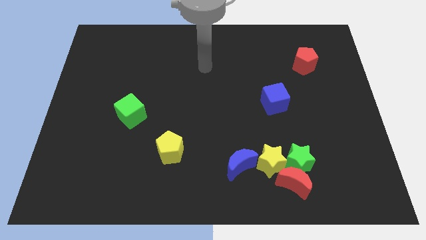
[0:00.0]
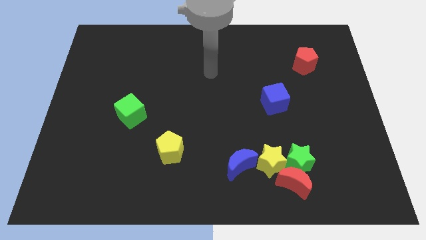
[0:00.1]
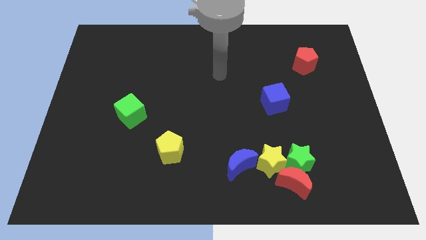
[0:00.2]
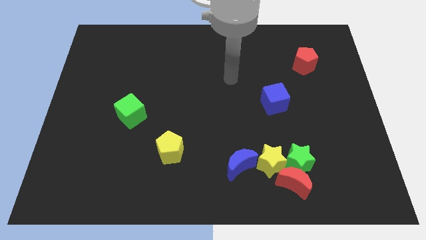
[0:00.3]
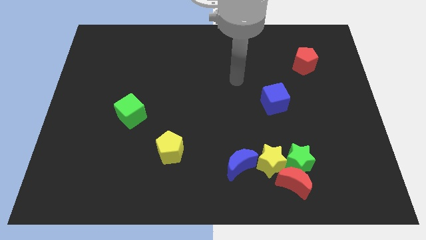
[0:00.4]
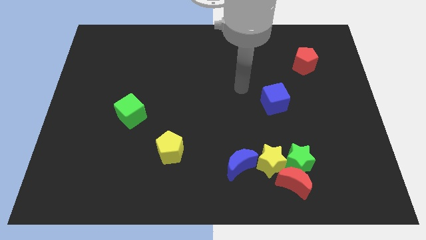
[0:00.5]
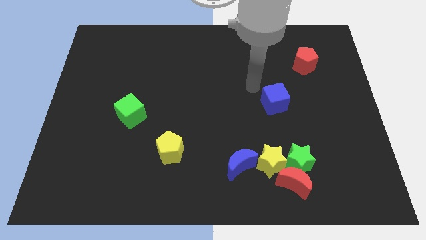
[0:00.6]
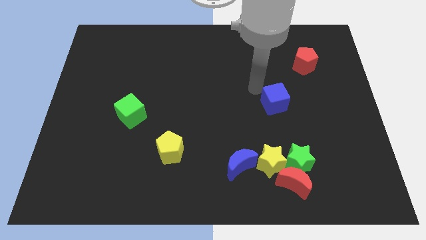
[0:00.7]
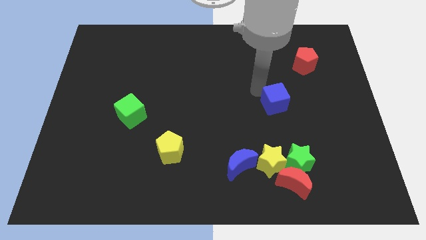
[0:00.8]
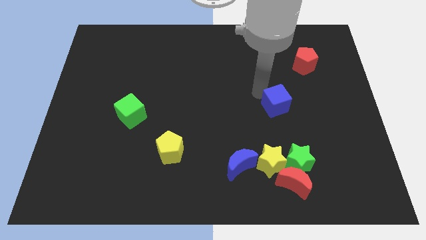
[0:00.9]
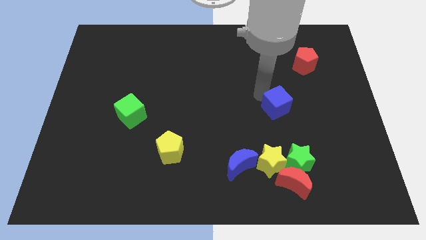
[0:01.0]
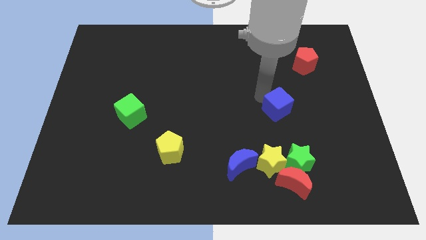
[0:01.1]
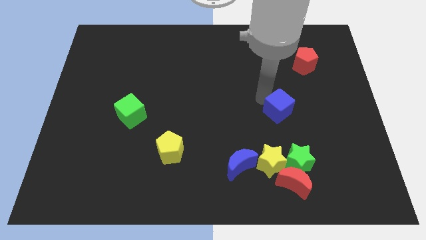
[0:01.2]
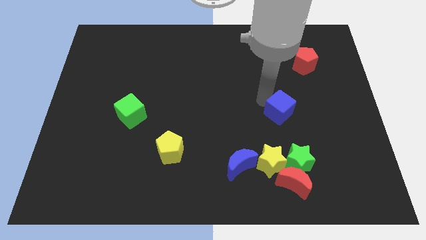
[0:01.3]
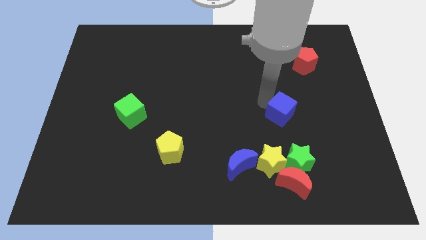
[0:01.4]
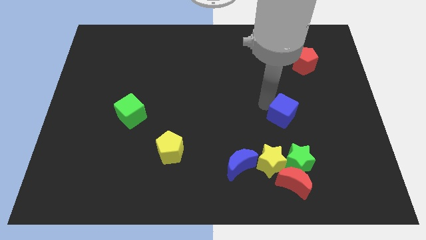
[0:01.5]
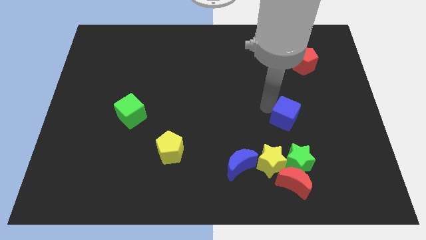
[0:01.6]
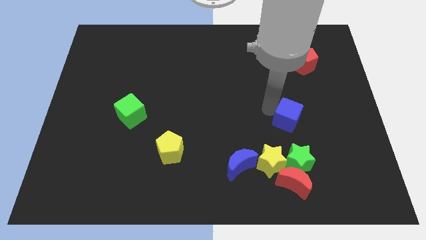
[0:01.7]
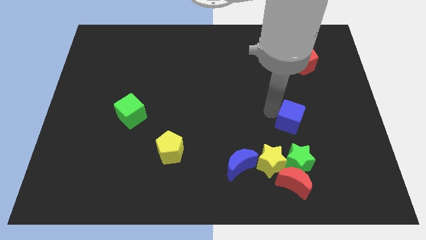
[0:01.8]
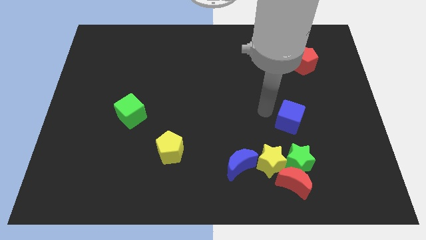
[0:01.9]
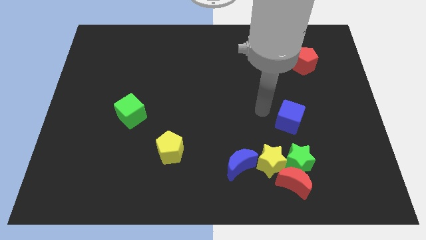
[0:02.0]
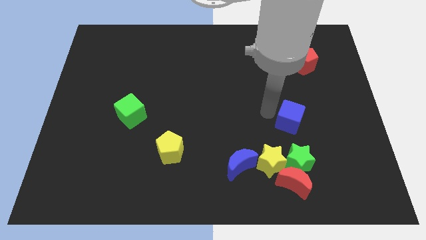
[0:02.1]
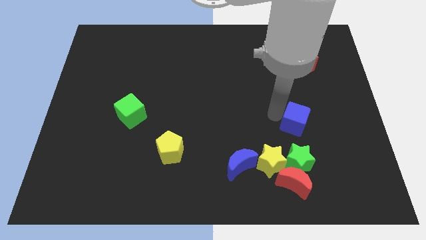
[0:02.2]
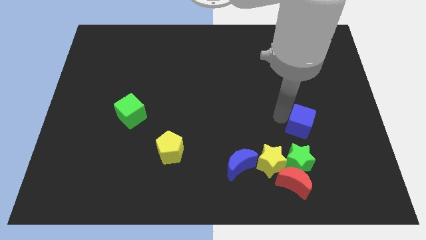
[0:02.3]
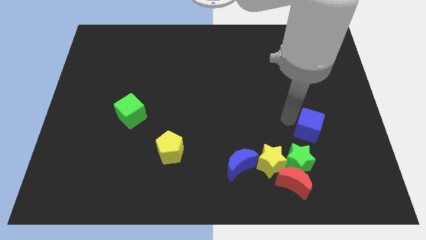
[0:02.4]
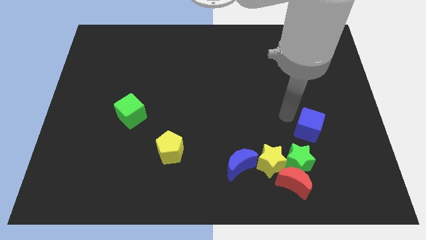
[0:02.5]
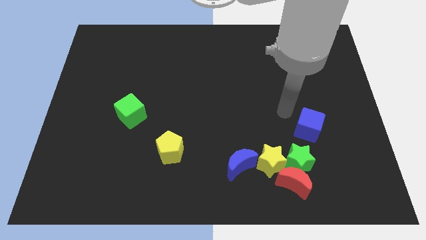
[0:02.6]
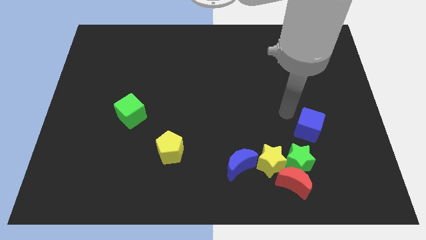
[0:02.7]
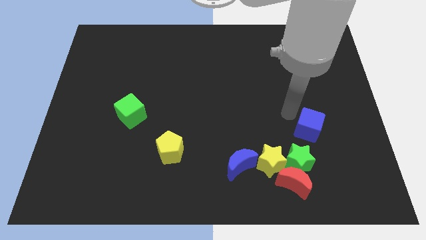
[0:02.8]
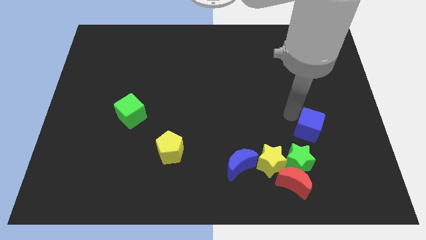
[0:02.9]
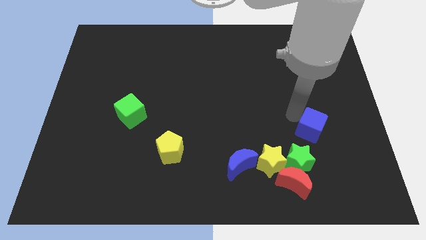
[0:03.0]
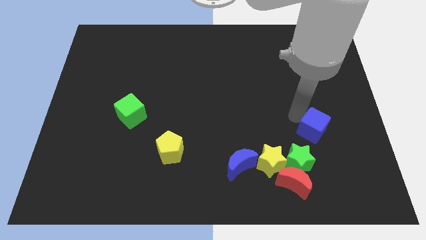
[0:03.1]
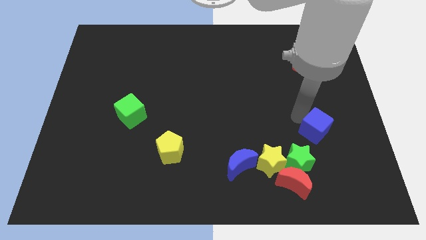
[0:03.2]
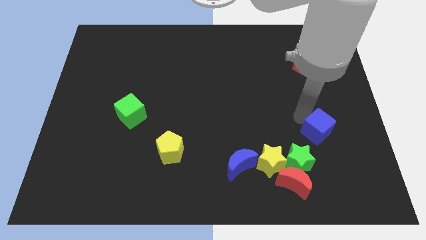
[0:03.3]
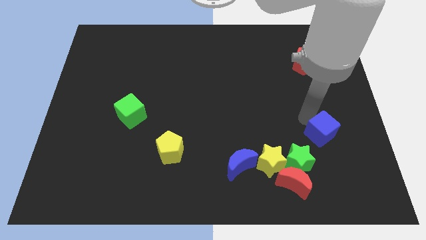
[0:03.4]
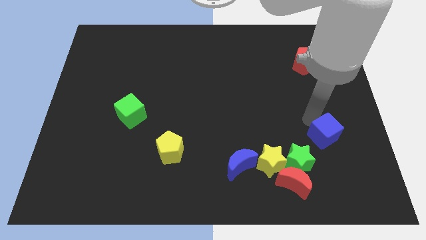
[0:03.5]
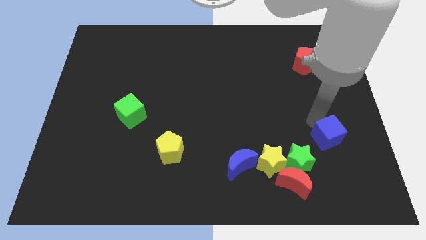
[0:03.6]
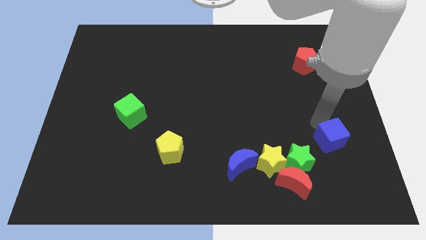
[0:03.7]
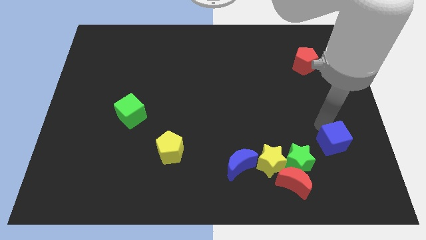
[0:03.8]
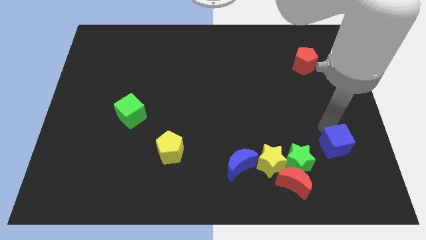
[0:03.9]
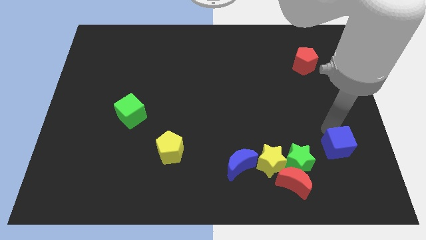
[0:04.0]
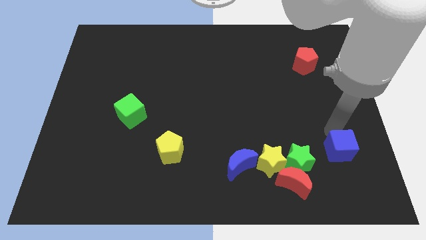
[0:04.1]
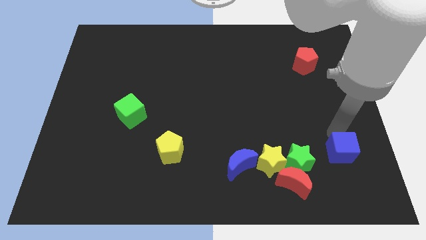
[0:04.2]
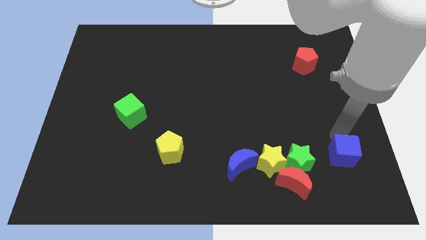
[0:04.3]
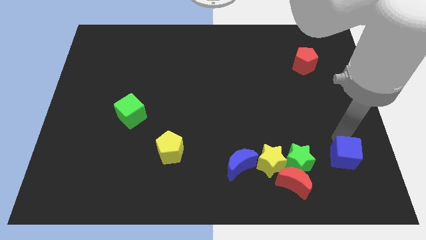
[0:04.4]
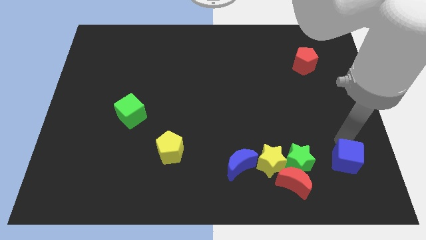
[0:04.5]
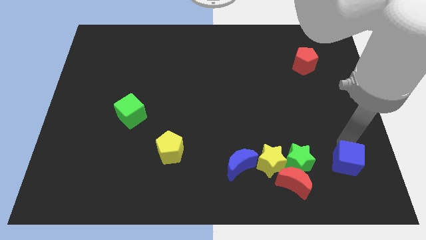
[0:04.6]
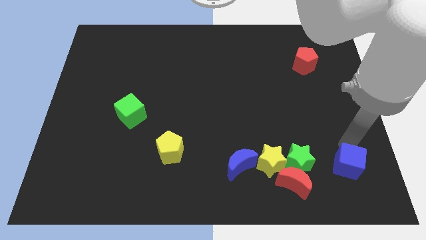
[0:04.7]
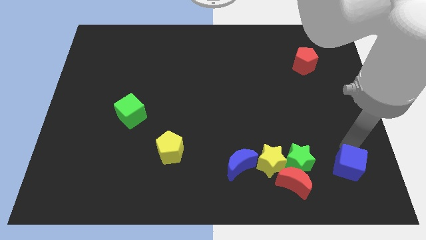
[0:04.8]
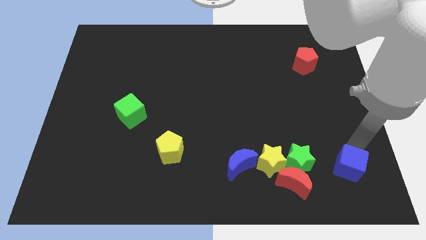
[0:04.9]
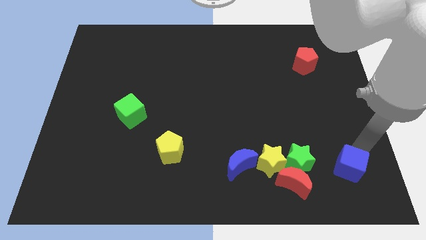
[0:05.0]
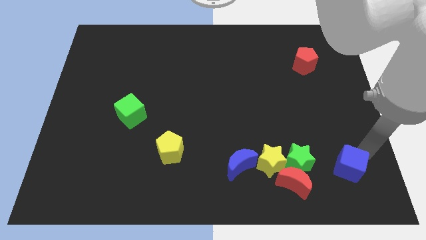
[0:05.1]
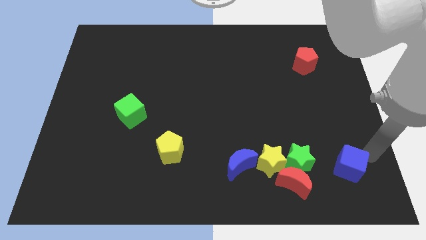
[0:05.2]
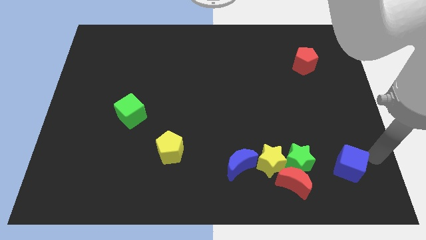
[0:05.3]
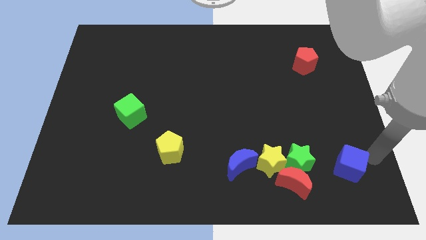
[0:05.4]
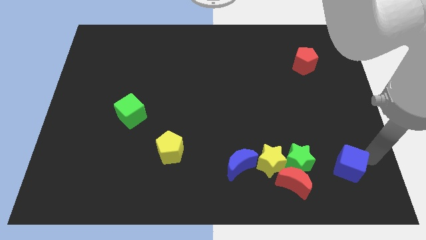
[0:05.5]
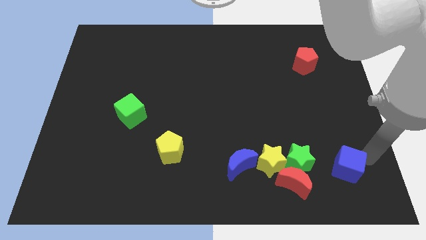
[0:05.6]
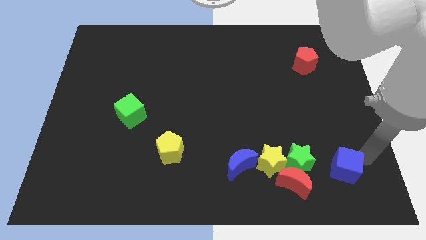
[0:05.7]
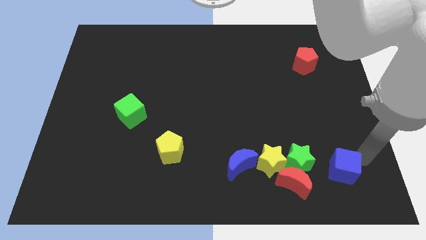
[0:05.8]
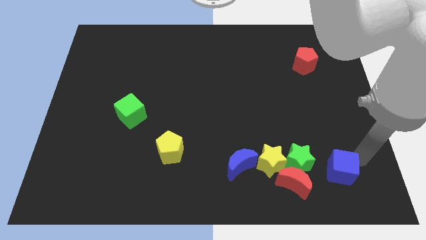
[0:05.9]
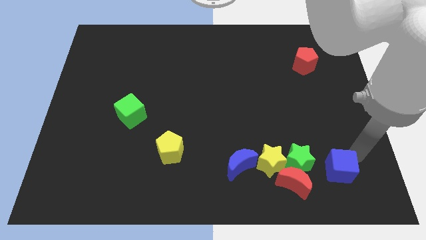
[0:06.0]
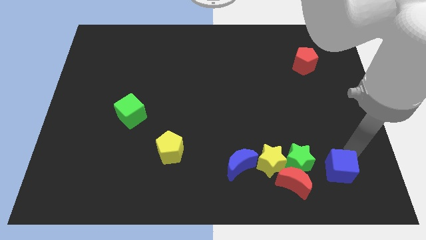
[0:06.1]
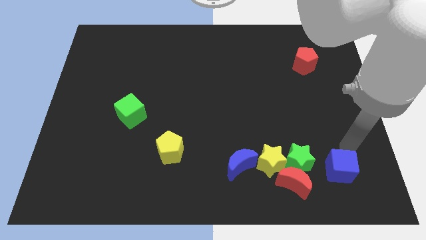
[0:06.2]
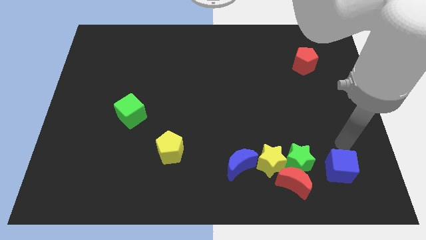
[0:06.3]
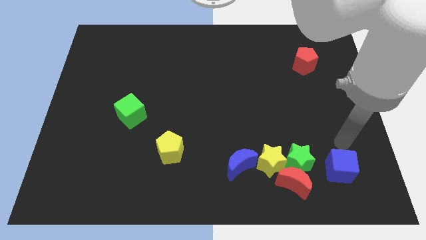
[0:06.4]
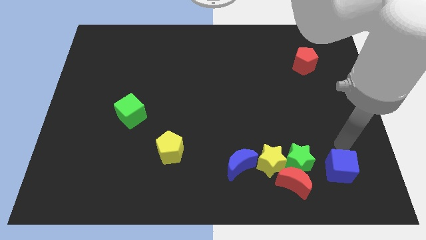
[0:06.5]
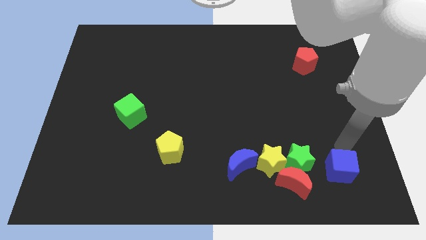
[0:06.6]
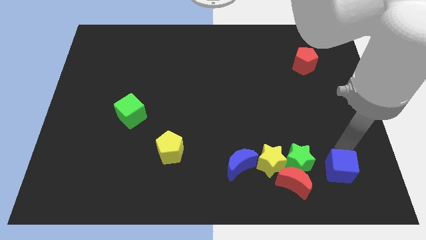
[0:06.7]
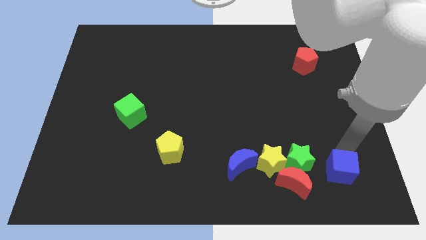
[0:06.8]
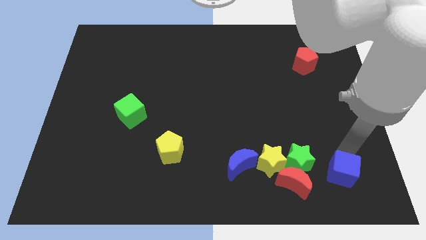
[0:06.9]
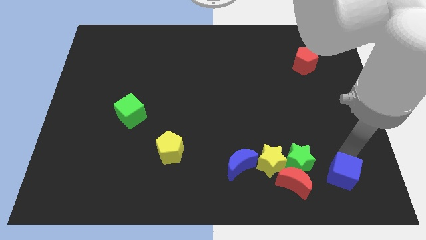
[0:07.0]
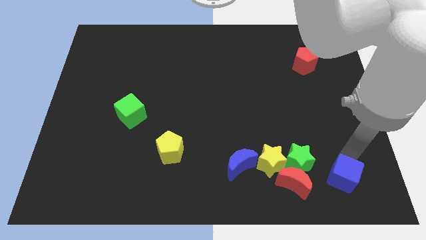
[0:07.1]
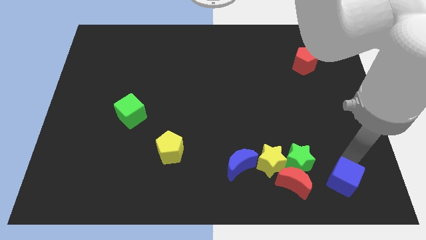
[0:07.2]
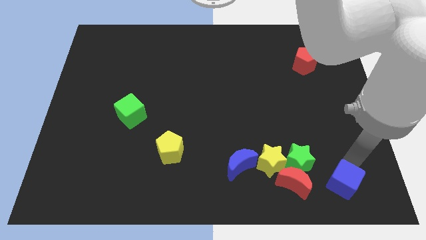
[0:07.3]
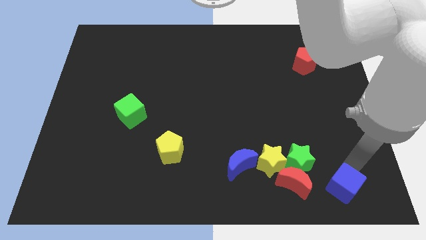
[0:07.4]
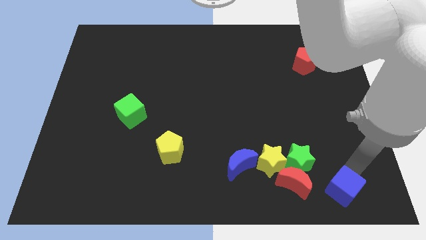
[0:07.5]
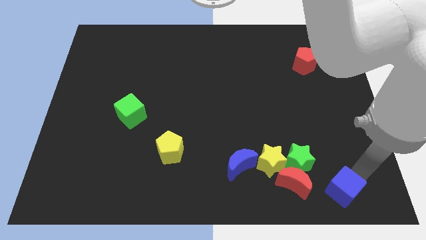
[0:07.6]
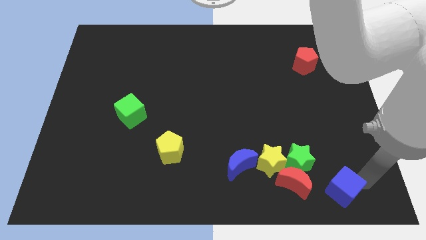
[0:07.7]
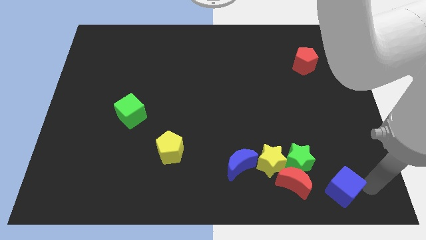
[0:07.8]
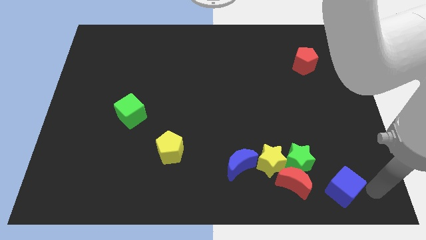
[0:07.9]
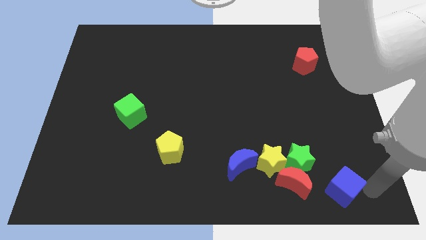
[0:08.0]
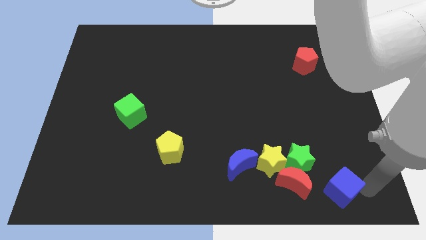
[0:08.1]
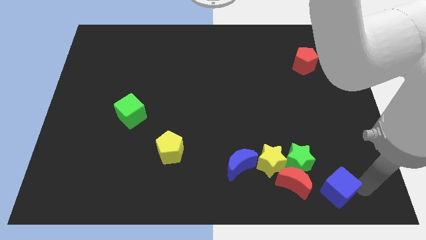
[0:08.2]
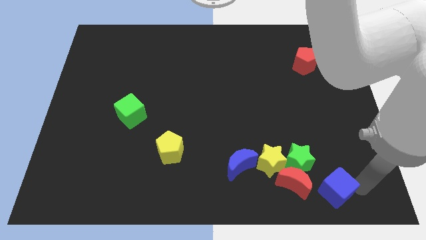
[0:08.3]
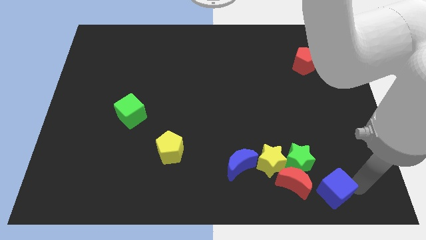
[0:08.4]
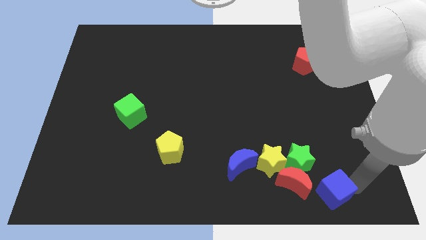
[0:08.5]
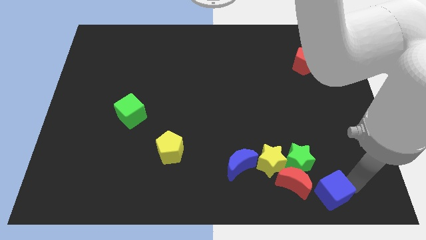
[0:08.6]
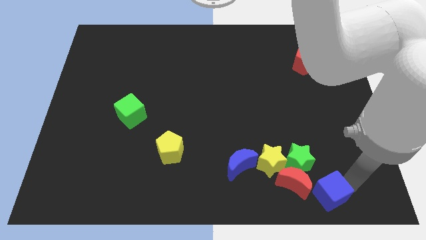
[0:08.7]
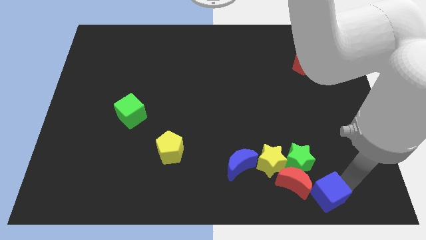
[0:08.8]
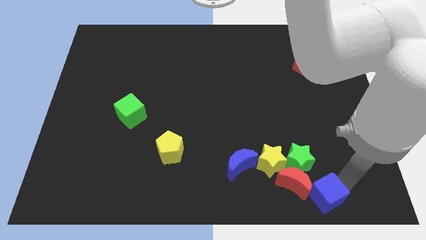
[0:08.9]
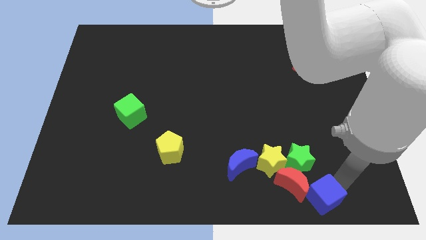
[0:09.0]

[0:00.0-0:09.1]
push the blue cube towards the red moon
